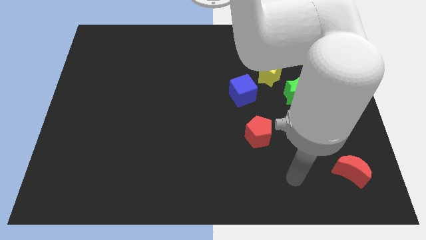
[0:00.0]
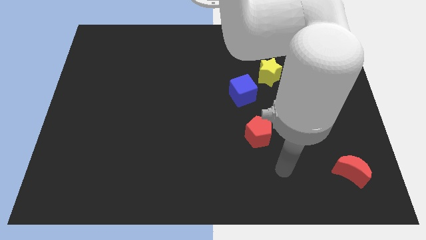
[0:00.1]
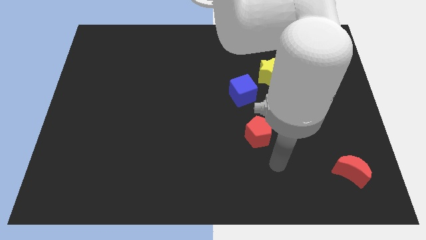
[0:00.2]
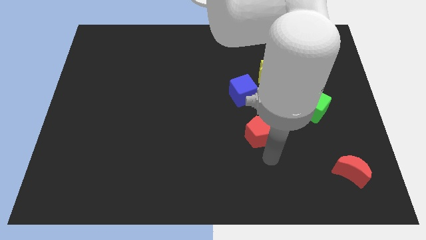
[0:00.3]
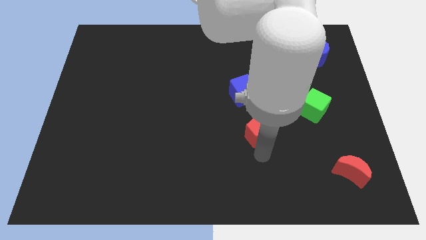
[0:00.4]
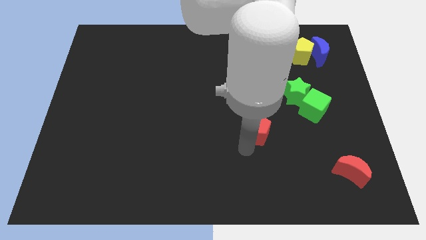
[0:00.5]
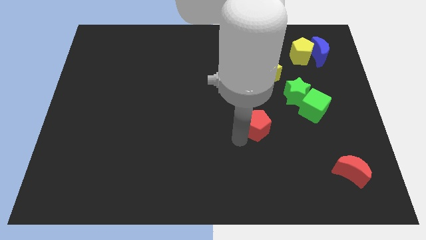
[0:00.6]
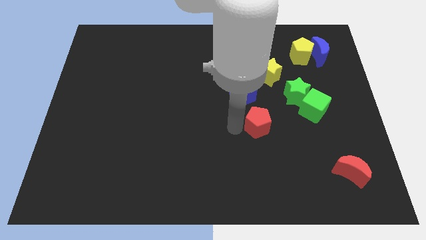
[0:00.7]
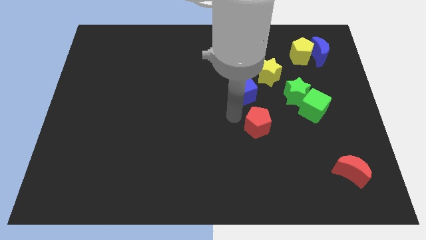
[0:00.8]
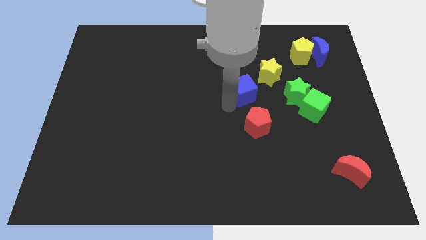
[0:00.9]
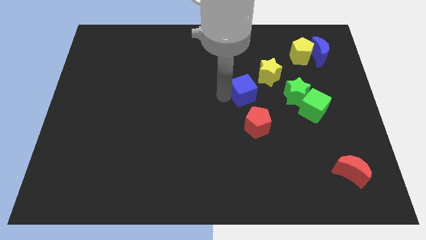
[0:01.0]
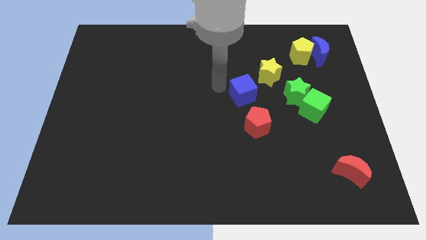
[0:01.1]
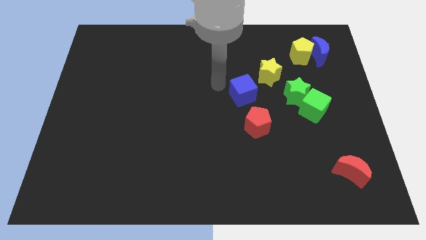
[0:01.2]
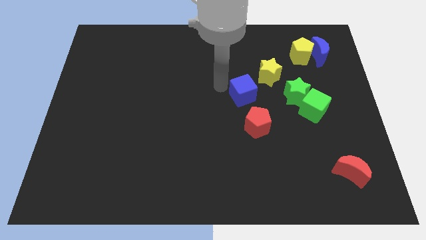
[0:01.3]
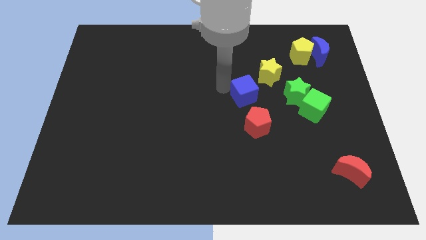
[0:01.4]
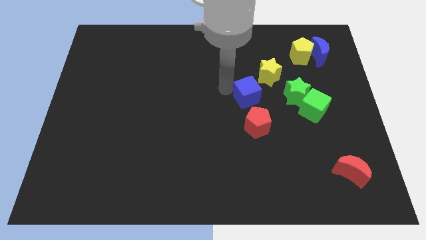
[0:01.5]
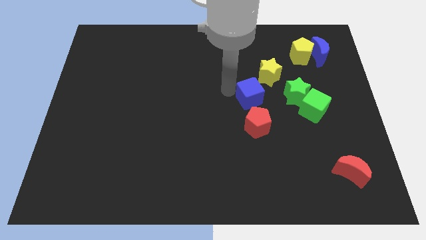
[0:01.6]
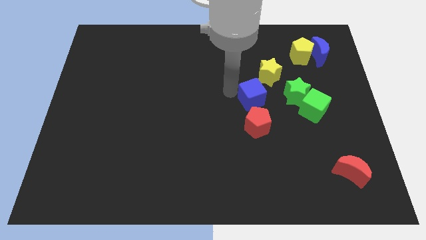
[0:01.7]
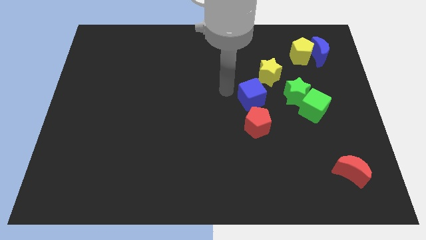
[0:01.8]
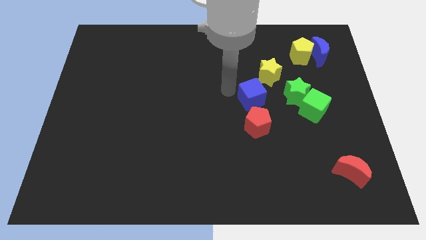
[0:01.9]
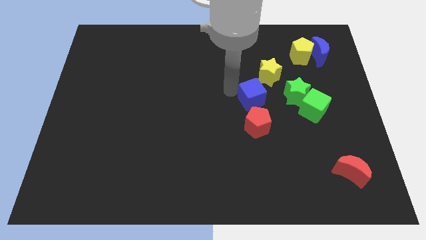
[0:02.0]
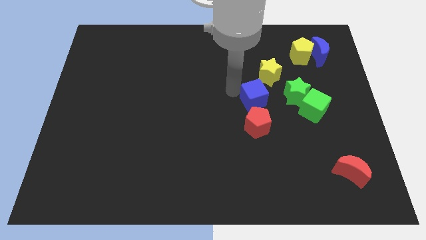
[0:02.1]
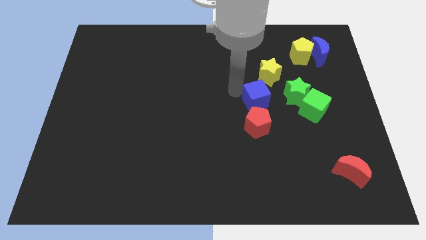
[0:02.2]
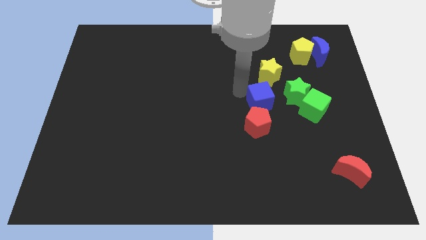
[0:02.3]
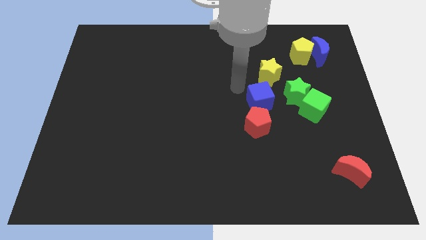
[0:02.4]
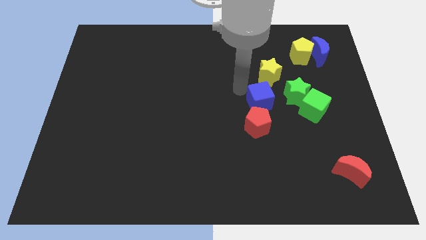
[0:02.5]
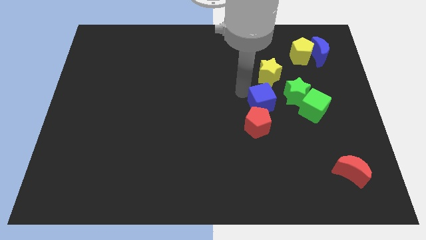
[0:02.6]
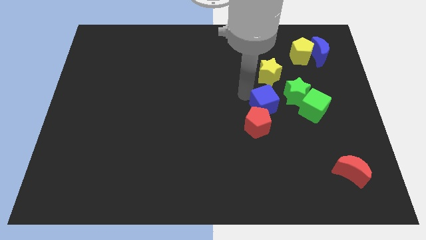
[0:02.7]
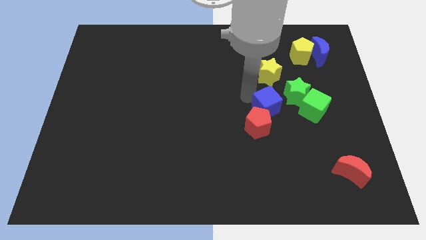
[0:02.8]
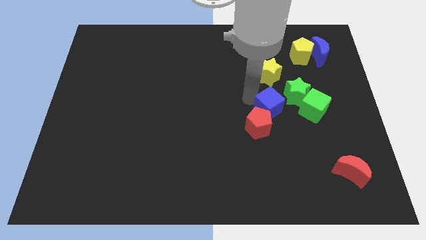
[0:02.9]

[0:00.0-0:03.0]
slightly push the blue cube downwards and then right

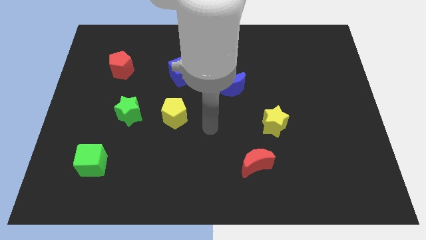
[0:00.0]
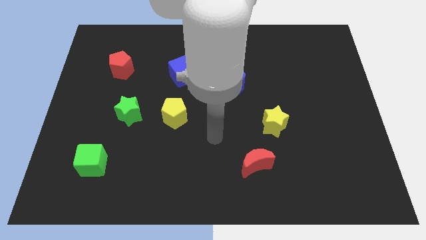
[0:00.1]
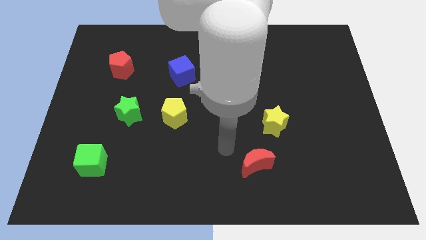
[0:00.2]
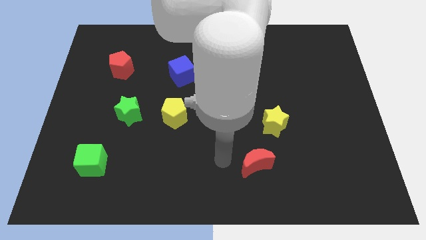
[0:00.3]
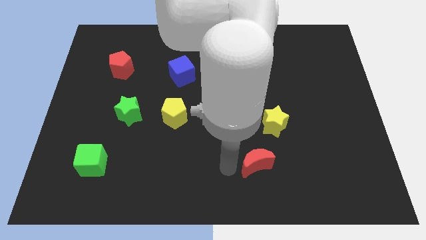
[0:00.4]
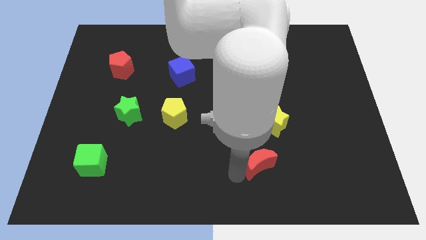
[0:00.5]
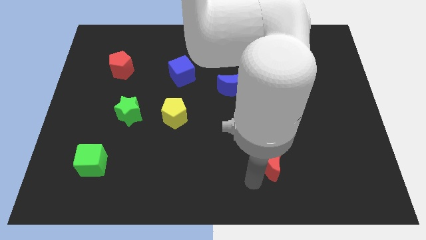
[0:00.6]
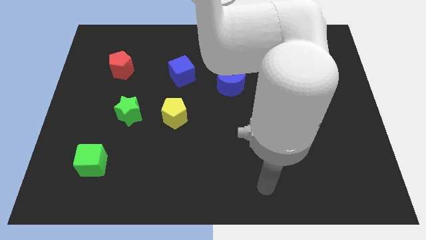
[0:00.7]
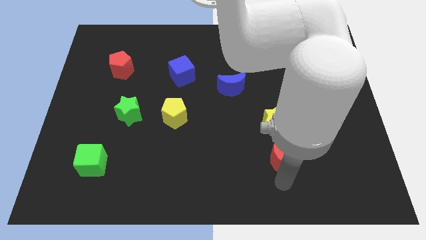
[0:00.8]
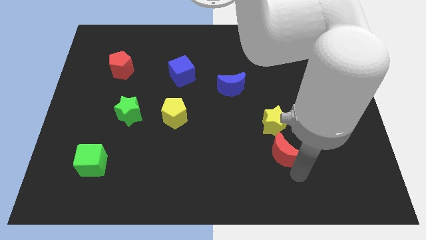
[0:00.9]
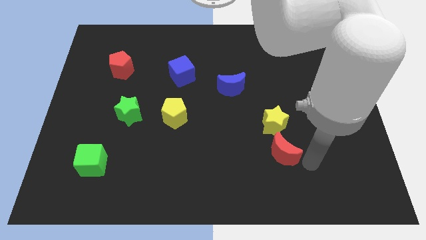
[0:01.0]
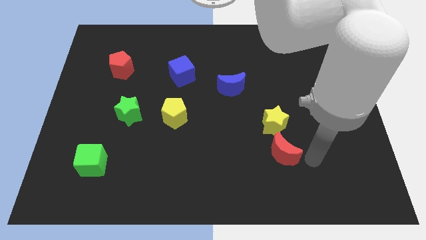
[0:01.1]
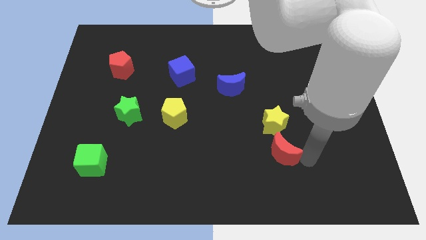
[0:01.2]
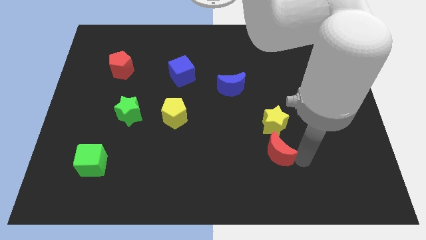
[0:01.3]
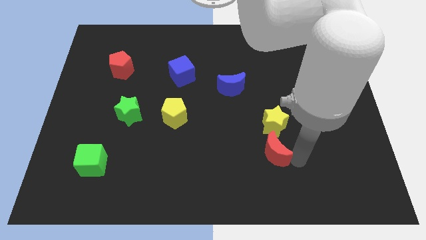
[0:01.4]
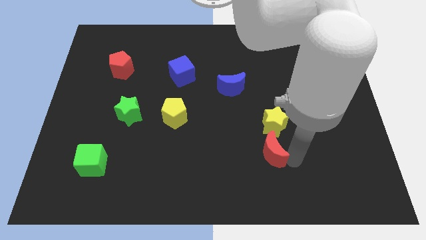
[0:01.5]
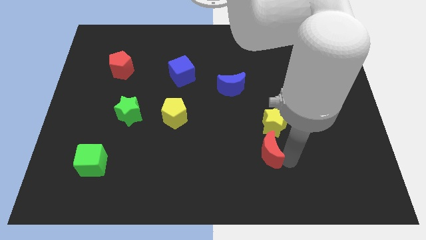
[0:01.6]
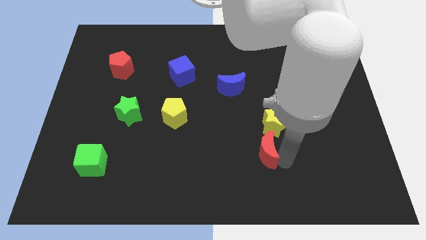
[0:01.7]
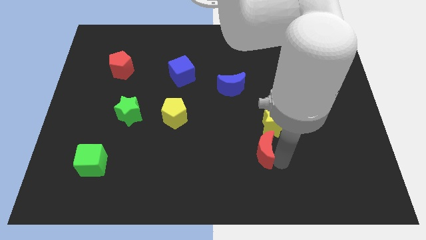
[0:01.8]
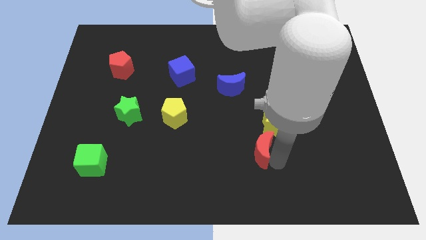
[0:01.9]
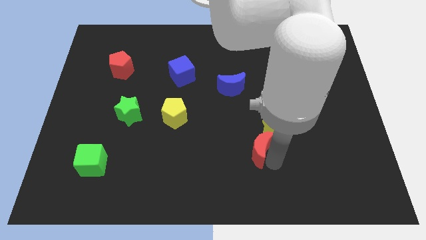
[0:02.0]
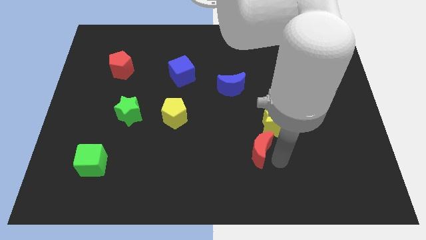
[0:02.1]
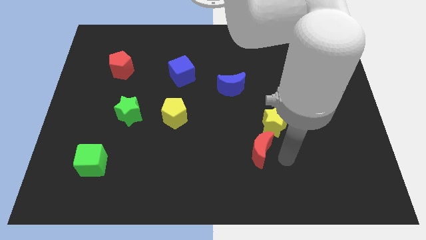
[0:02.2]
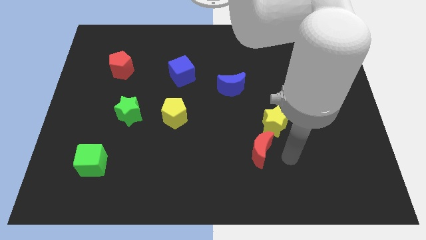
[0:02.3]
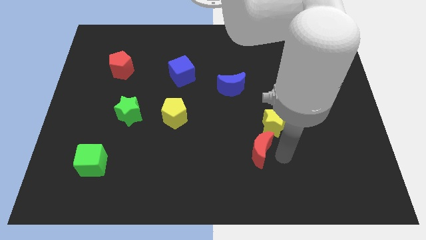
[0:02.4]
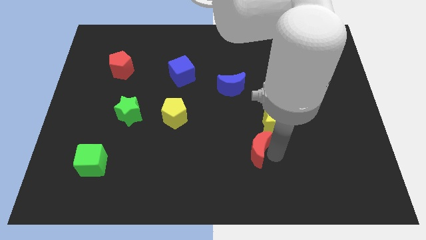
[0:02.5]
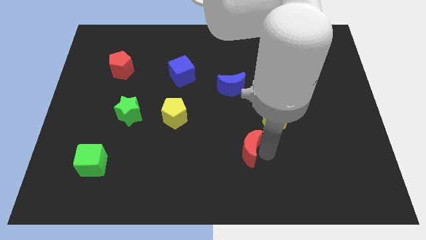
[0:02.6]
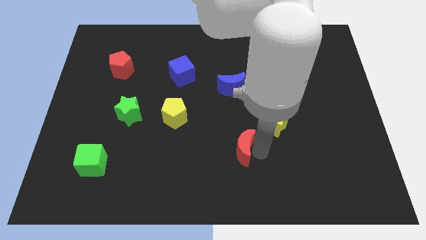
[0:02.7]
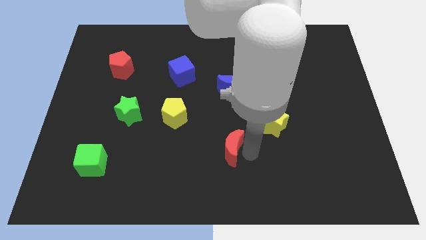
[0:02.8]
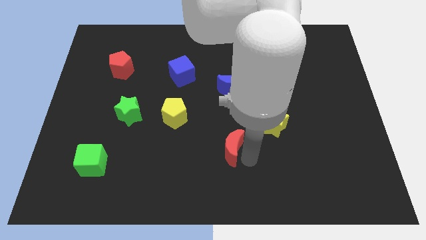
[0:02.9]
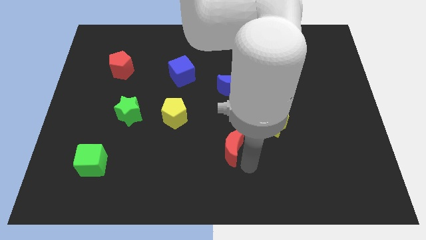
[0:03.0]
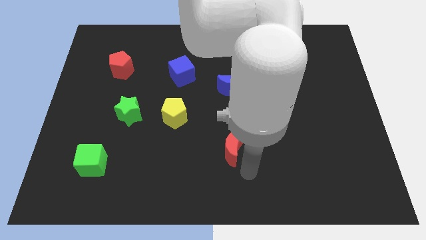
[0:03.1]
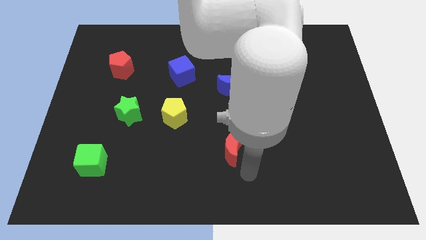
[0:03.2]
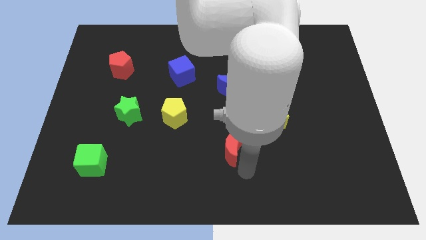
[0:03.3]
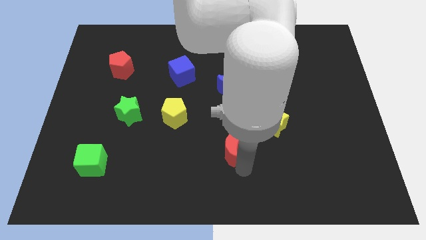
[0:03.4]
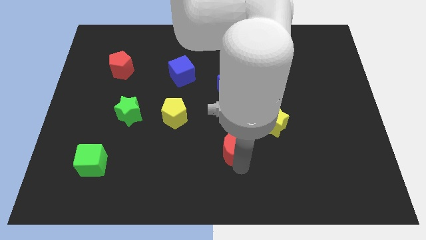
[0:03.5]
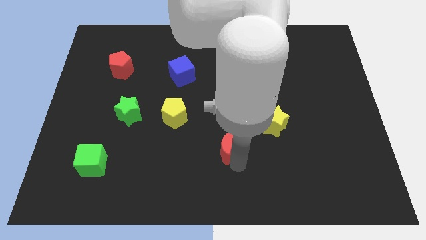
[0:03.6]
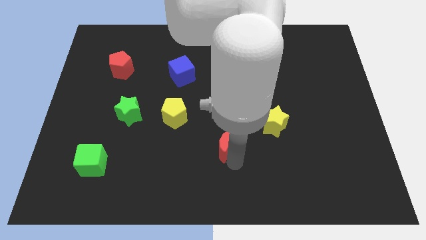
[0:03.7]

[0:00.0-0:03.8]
slightly push the red moon diagonally up and to the left

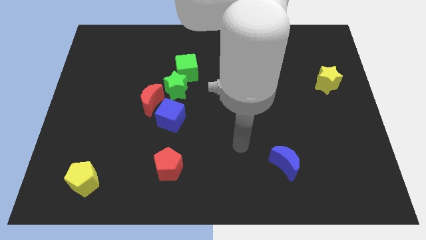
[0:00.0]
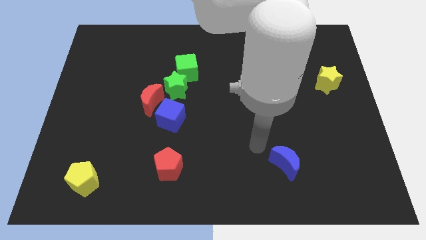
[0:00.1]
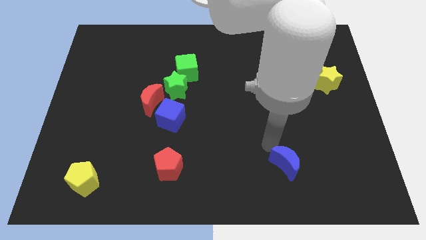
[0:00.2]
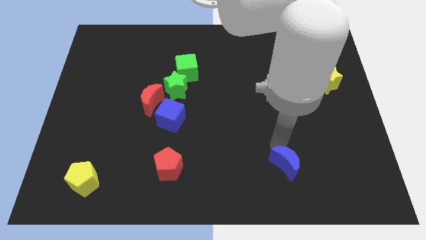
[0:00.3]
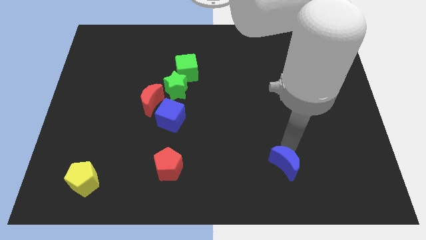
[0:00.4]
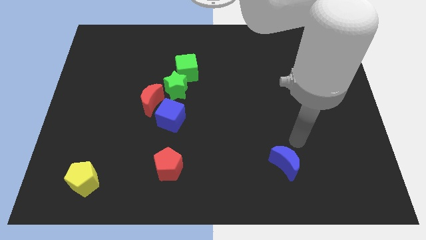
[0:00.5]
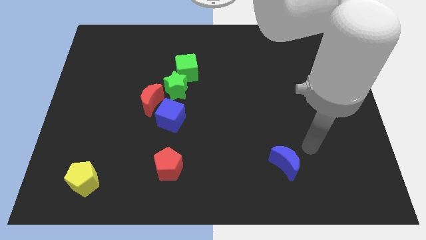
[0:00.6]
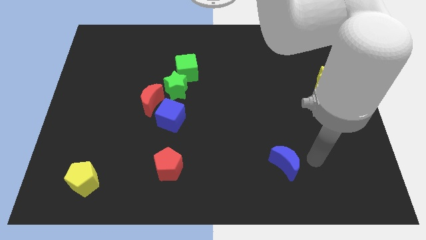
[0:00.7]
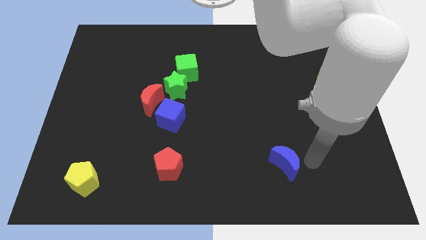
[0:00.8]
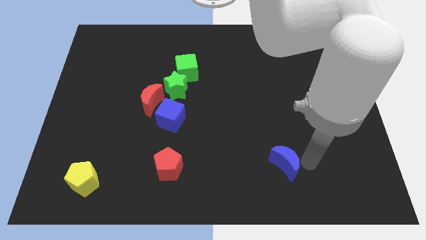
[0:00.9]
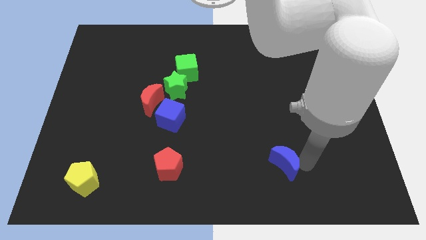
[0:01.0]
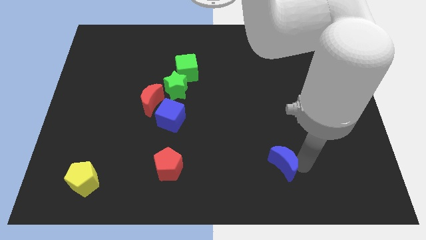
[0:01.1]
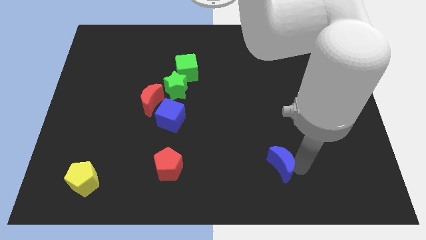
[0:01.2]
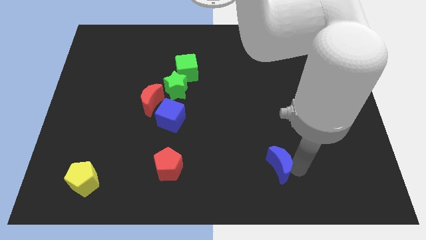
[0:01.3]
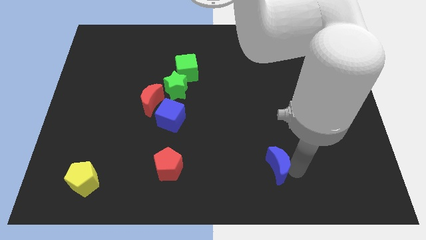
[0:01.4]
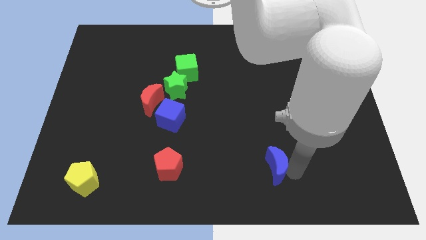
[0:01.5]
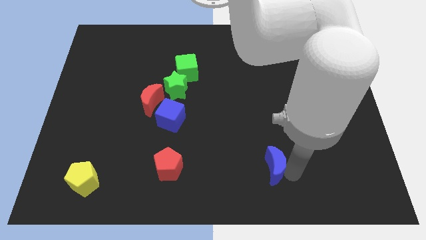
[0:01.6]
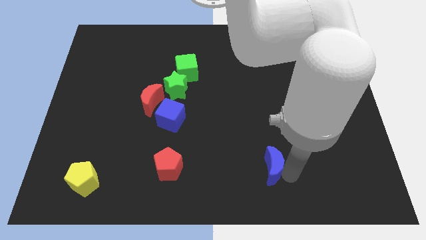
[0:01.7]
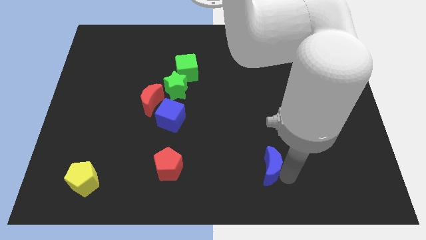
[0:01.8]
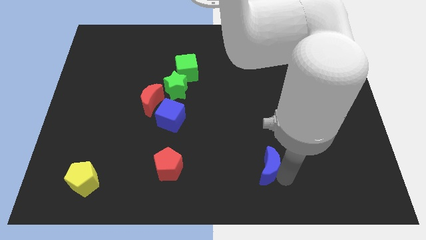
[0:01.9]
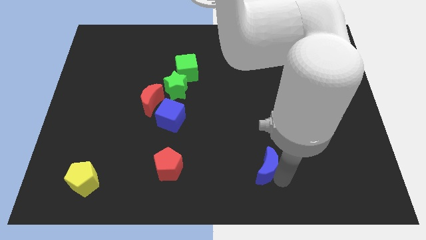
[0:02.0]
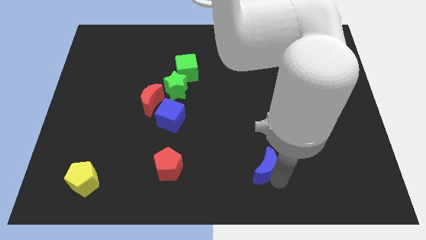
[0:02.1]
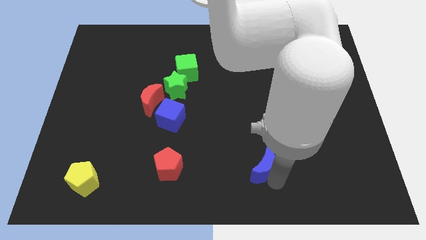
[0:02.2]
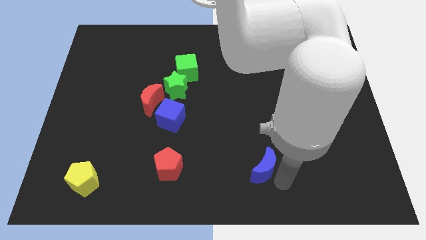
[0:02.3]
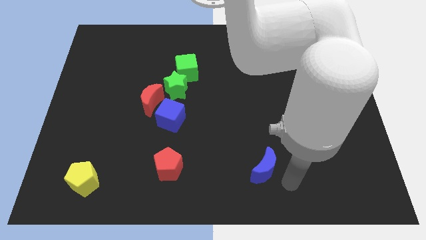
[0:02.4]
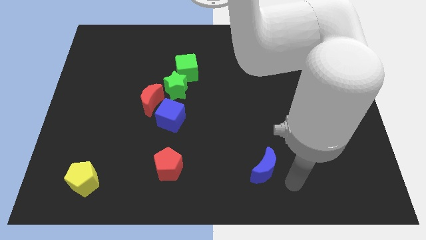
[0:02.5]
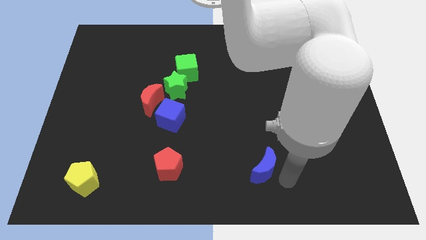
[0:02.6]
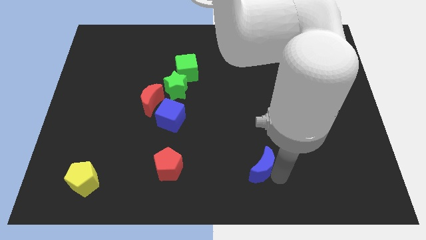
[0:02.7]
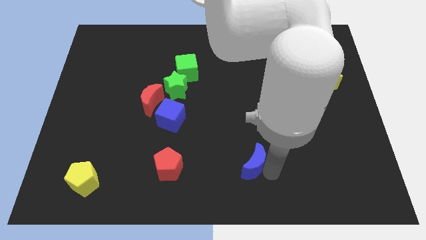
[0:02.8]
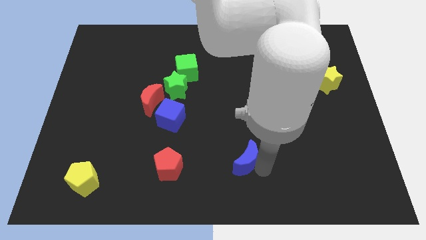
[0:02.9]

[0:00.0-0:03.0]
slide the blue moon a bit to the left
